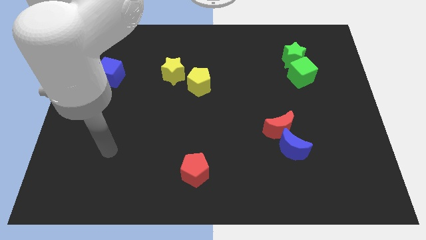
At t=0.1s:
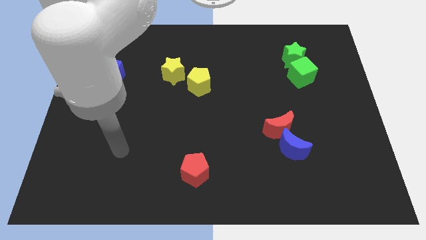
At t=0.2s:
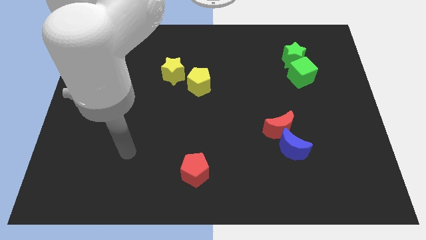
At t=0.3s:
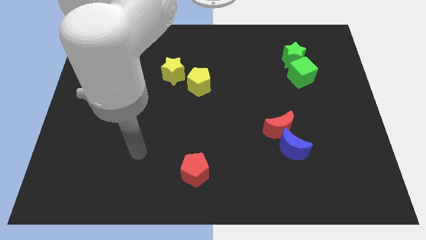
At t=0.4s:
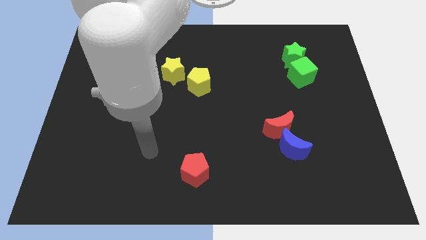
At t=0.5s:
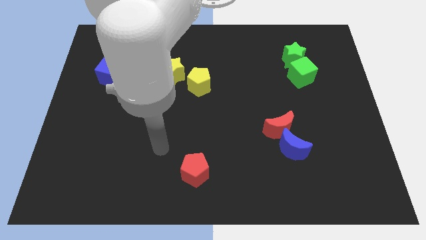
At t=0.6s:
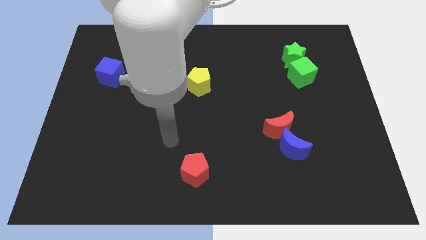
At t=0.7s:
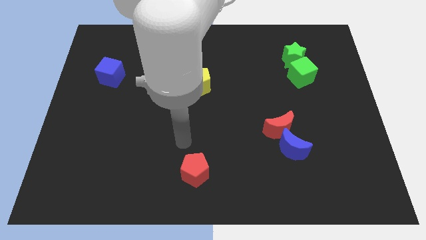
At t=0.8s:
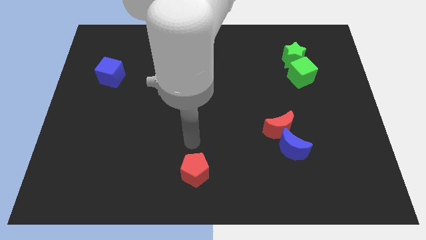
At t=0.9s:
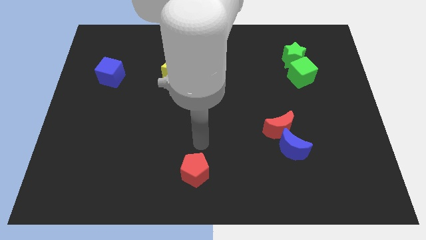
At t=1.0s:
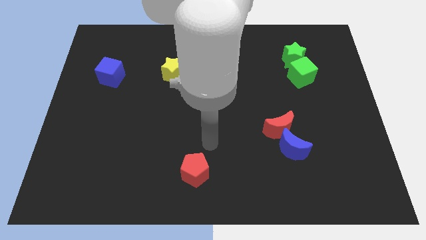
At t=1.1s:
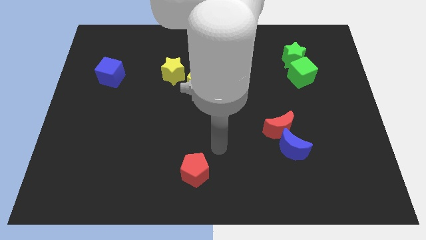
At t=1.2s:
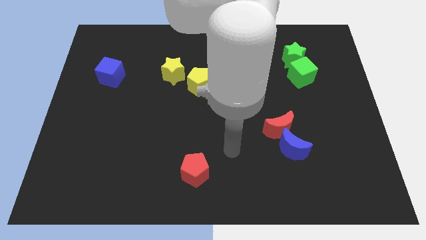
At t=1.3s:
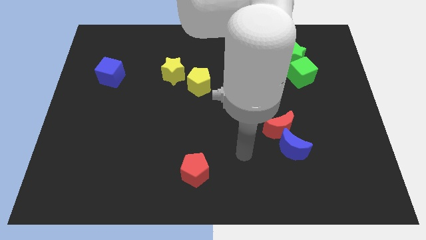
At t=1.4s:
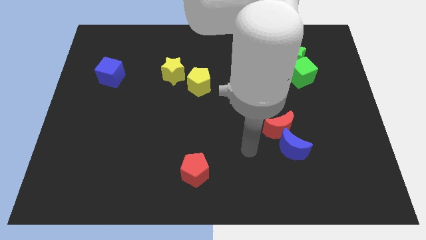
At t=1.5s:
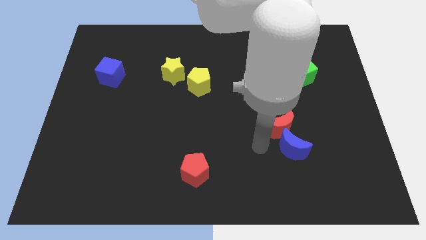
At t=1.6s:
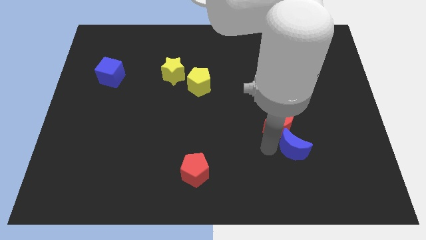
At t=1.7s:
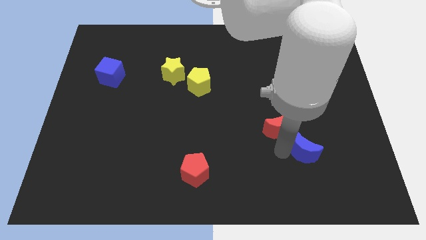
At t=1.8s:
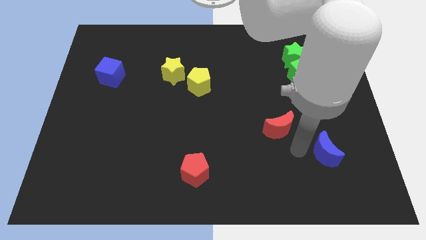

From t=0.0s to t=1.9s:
move the red moon away from the blue moon

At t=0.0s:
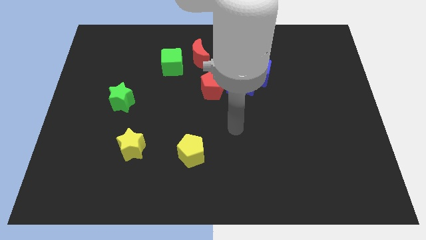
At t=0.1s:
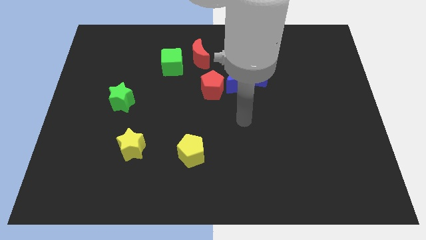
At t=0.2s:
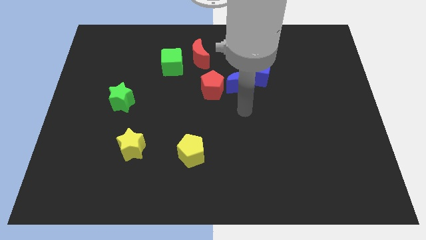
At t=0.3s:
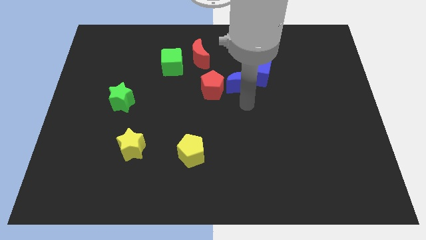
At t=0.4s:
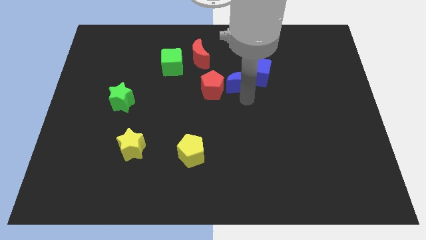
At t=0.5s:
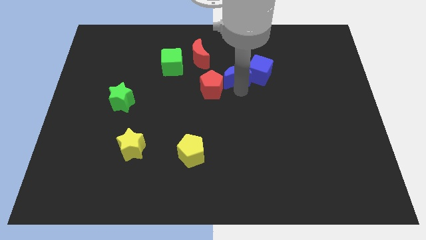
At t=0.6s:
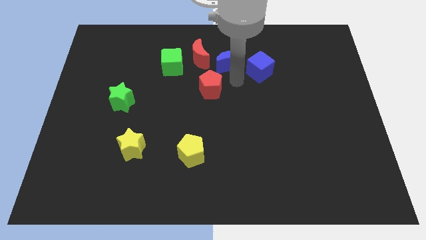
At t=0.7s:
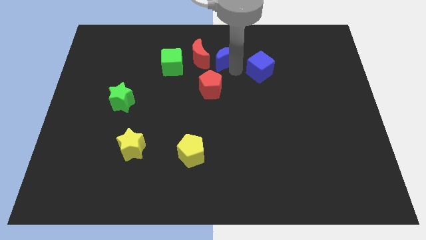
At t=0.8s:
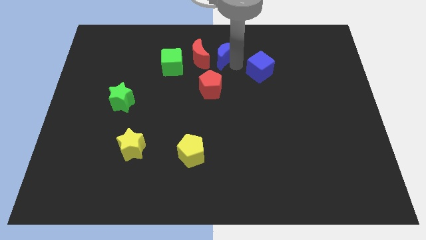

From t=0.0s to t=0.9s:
move the blue cube away from the blue moon

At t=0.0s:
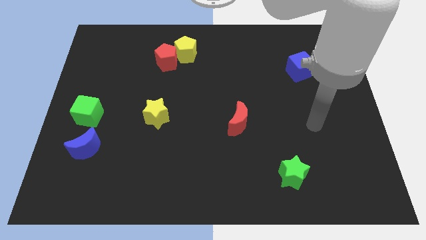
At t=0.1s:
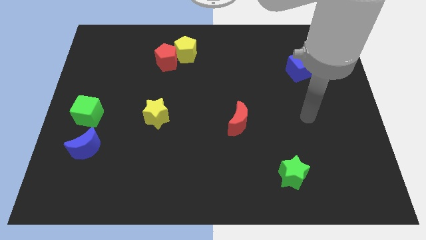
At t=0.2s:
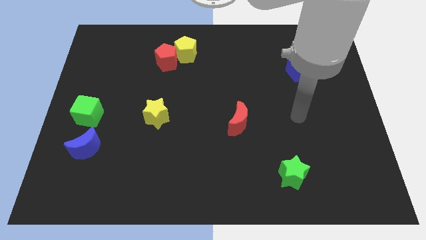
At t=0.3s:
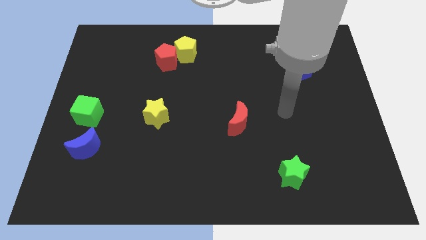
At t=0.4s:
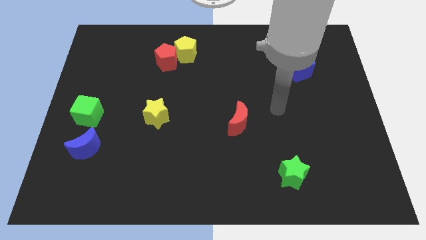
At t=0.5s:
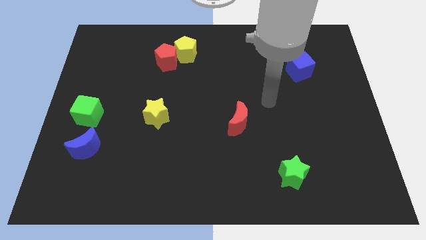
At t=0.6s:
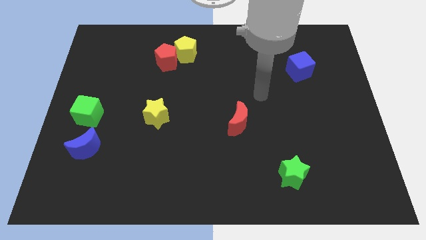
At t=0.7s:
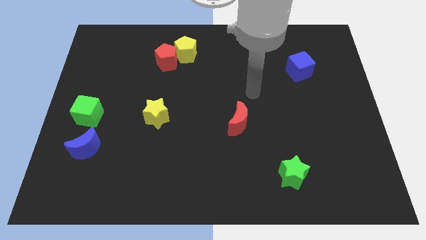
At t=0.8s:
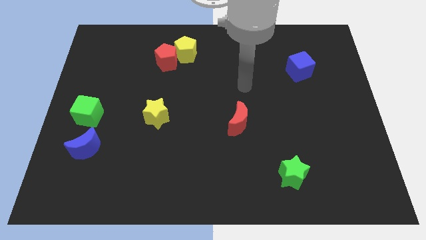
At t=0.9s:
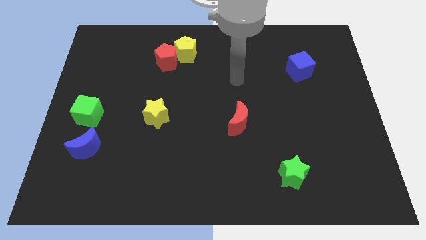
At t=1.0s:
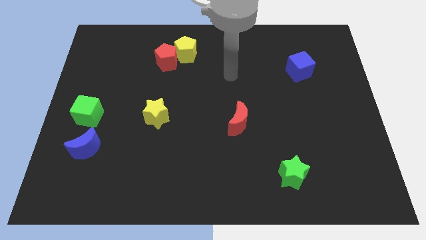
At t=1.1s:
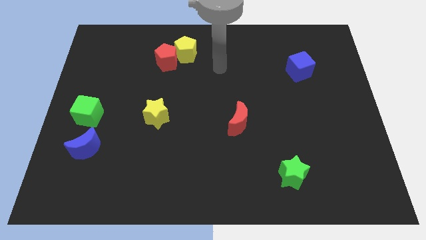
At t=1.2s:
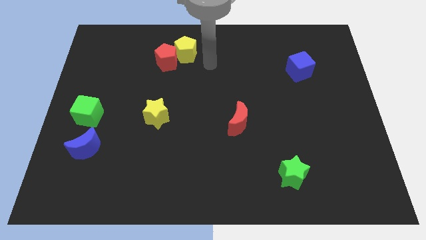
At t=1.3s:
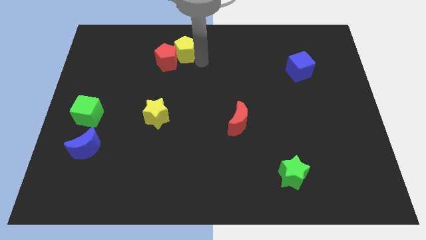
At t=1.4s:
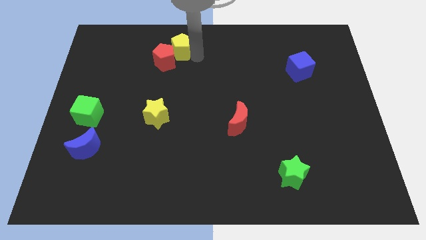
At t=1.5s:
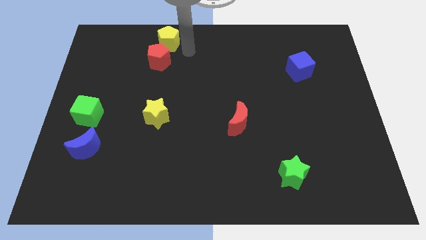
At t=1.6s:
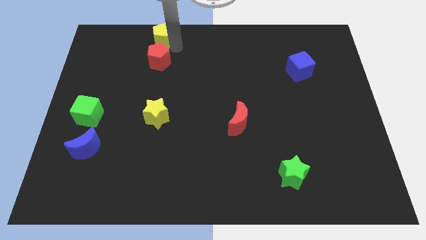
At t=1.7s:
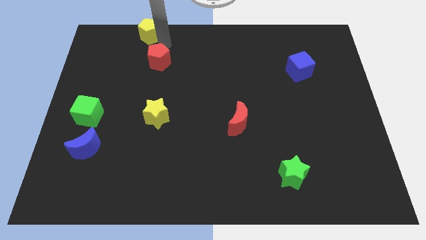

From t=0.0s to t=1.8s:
move the red pentagon away from the yellow pentagon

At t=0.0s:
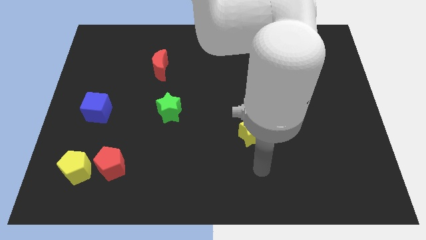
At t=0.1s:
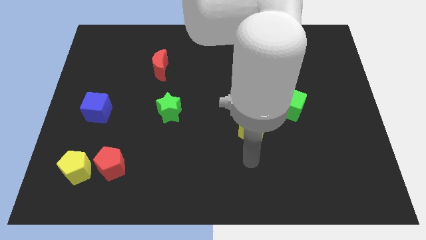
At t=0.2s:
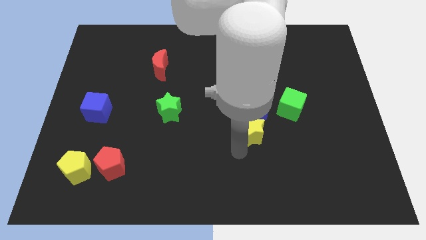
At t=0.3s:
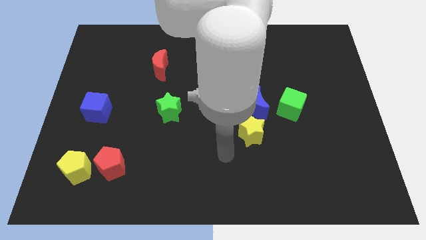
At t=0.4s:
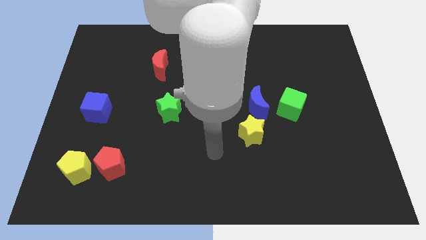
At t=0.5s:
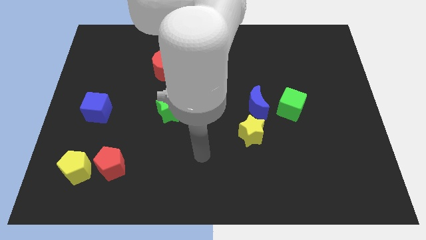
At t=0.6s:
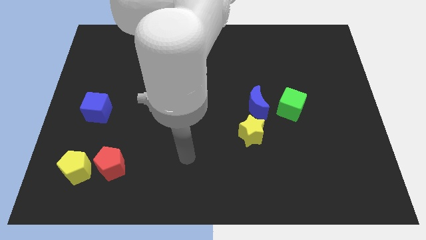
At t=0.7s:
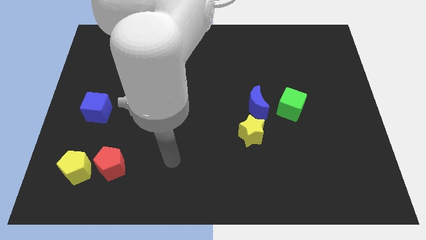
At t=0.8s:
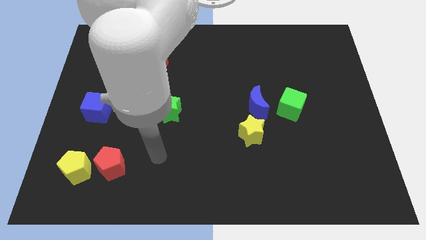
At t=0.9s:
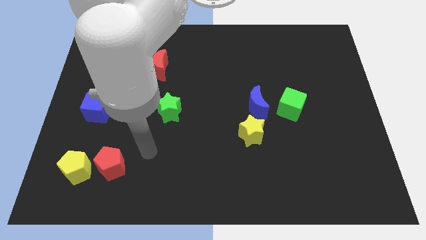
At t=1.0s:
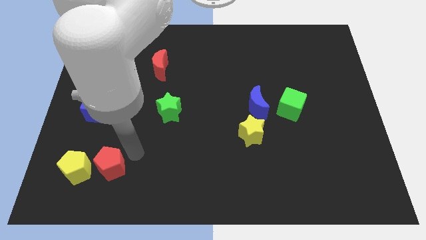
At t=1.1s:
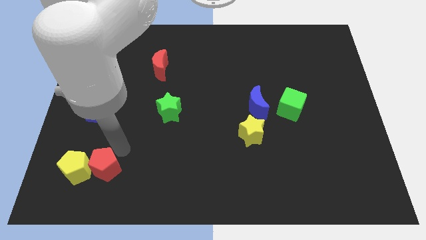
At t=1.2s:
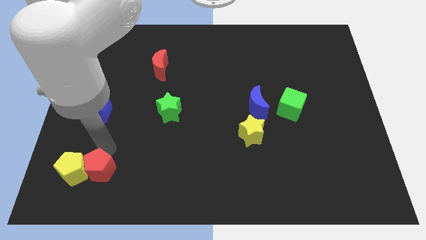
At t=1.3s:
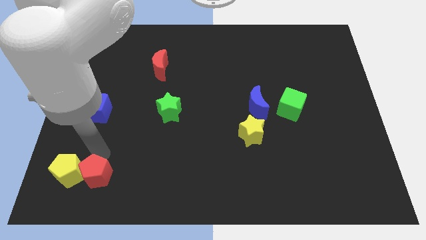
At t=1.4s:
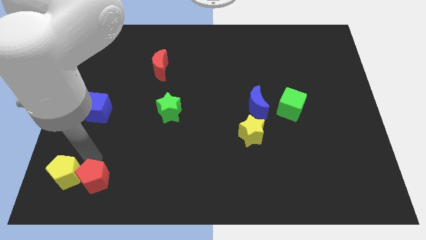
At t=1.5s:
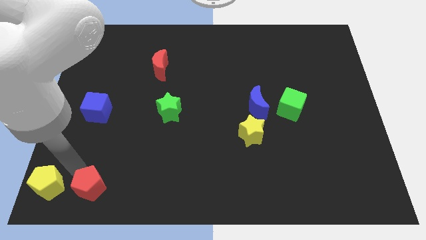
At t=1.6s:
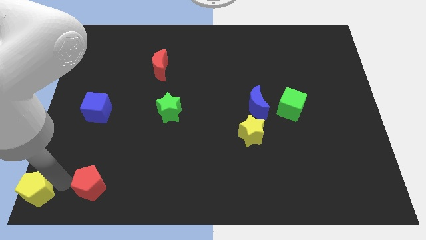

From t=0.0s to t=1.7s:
separate the red pentagon from the yellow pentagon

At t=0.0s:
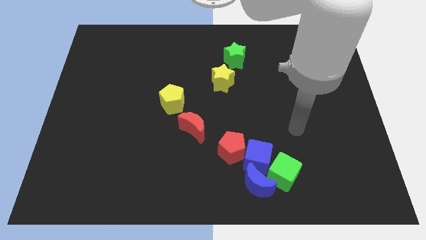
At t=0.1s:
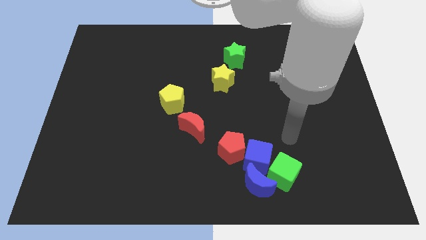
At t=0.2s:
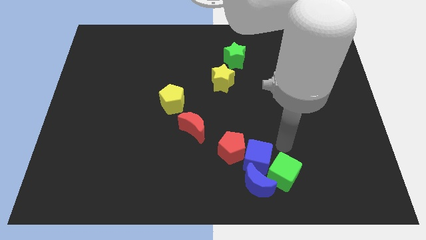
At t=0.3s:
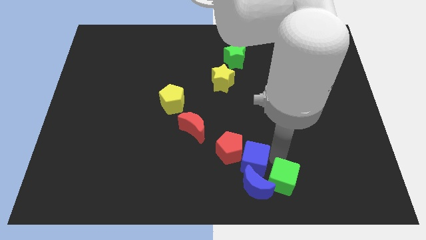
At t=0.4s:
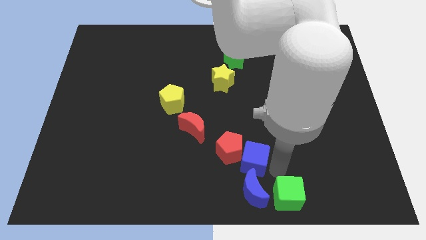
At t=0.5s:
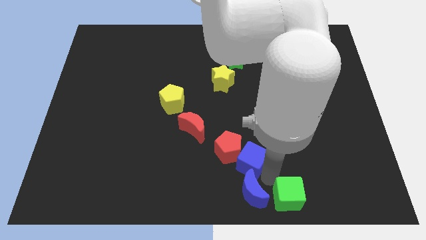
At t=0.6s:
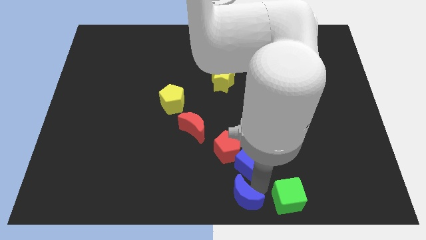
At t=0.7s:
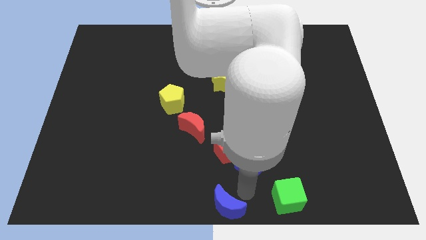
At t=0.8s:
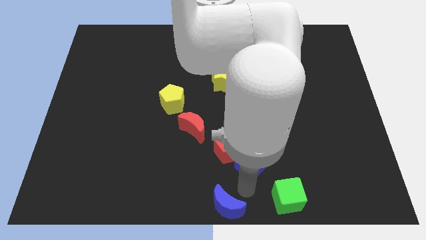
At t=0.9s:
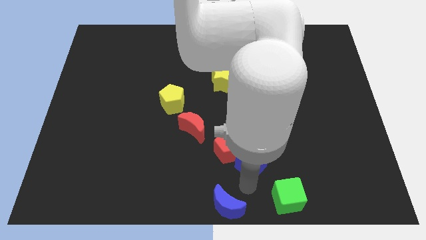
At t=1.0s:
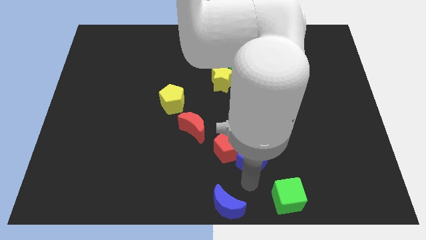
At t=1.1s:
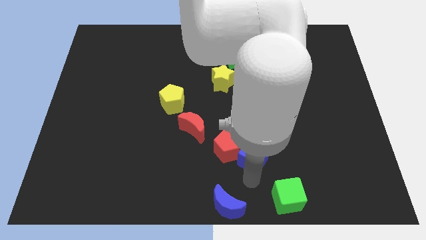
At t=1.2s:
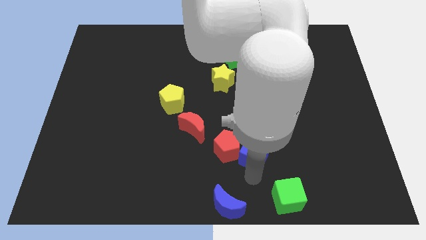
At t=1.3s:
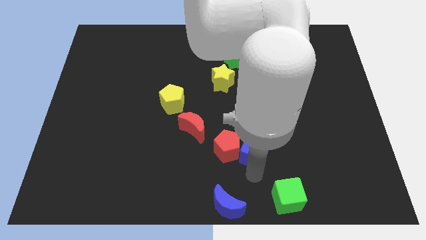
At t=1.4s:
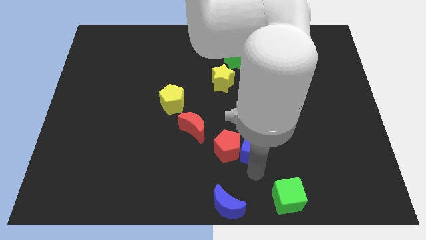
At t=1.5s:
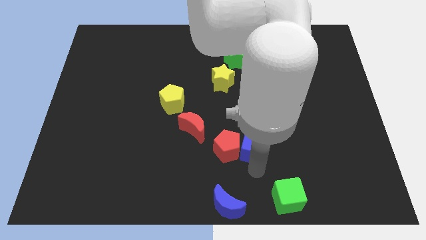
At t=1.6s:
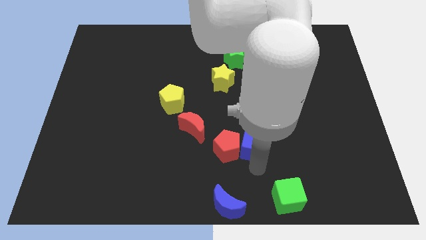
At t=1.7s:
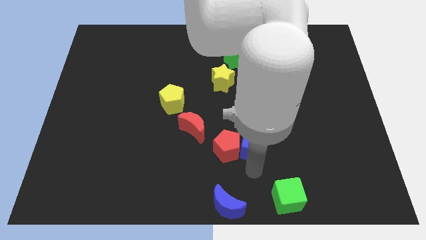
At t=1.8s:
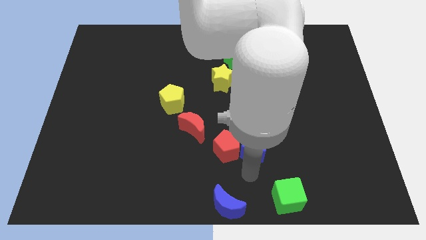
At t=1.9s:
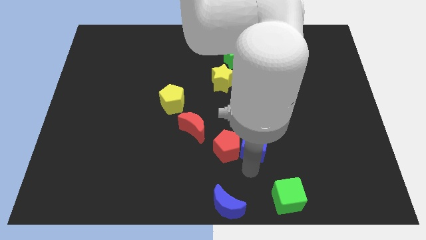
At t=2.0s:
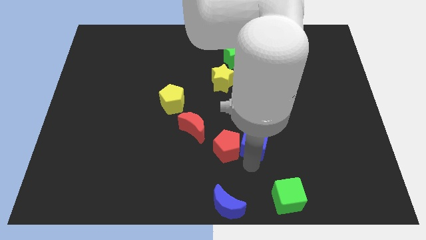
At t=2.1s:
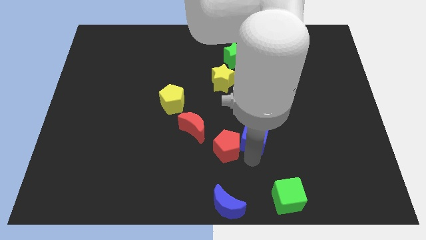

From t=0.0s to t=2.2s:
move the blue cube away from the red pentagon, blue moon, and green cube

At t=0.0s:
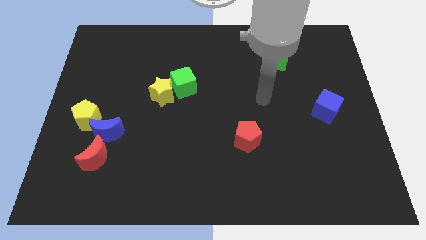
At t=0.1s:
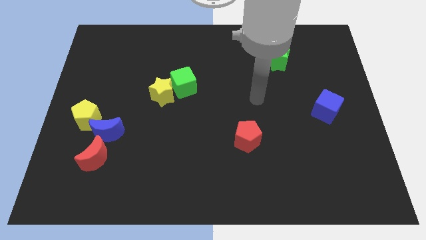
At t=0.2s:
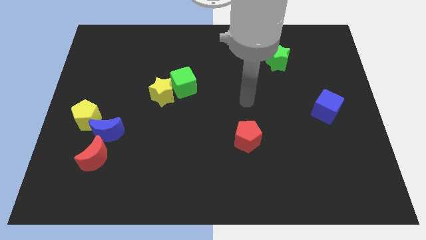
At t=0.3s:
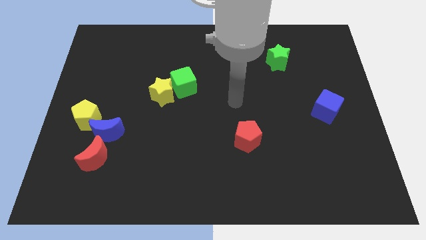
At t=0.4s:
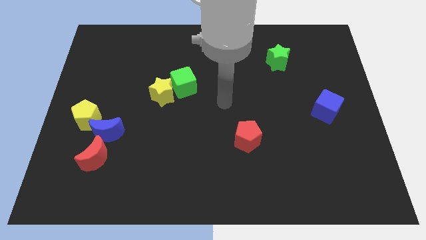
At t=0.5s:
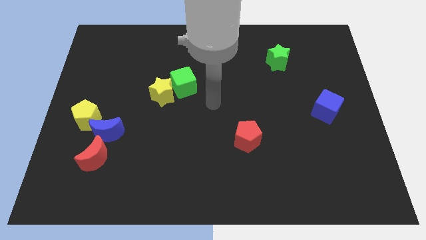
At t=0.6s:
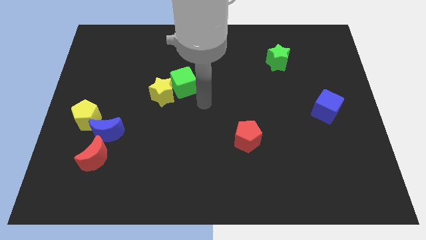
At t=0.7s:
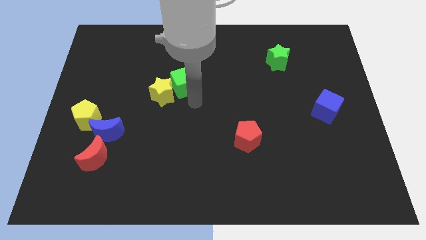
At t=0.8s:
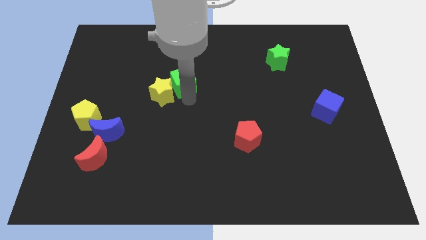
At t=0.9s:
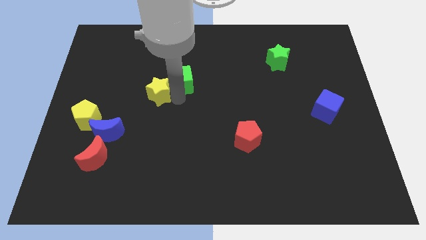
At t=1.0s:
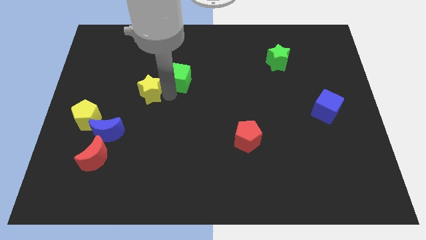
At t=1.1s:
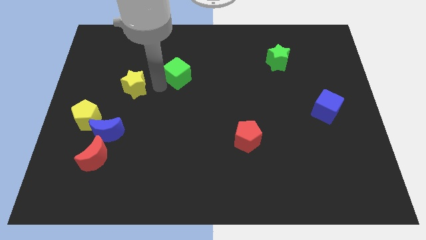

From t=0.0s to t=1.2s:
pull the green cube apart from the yellow star
